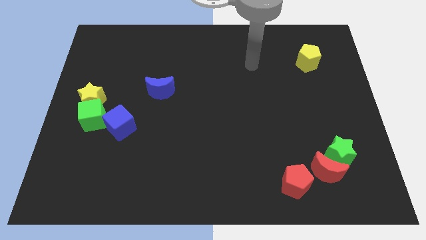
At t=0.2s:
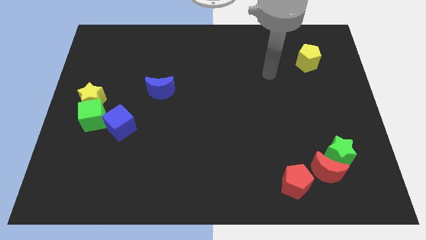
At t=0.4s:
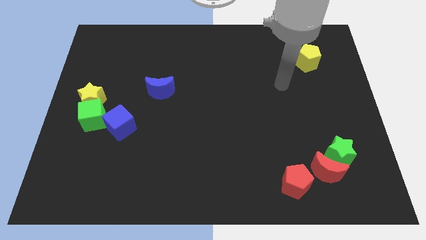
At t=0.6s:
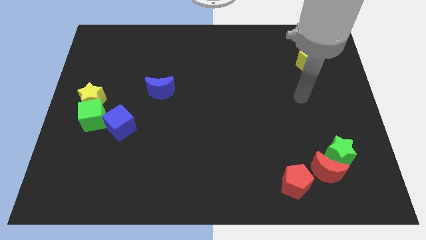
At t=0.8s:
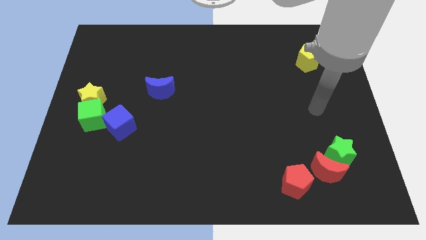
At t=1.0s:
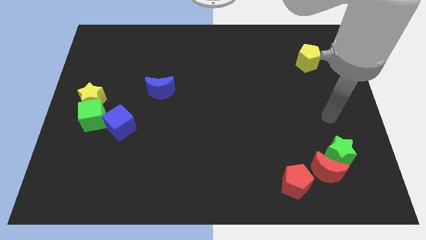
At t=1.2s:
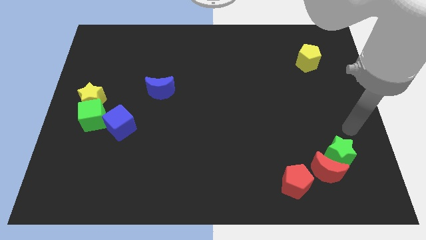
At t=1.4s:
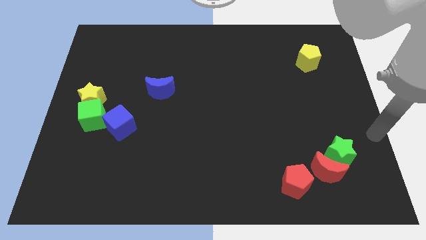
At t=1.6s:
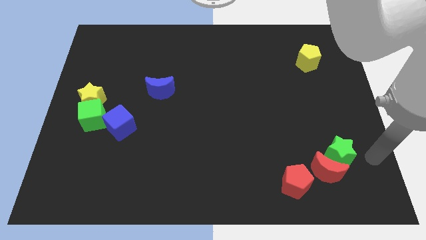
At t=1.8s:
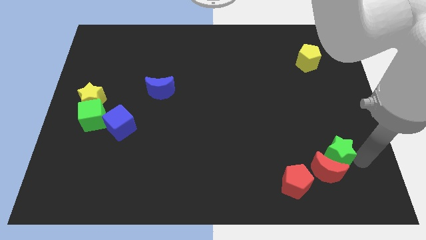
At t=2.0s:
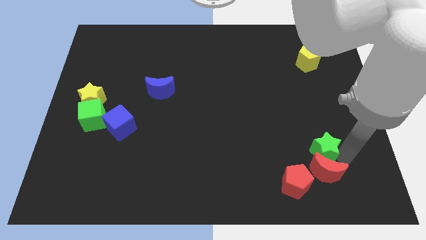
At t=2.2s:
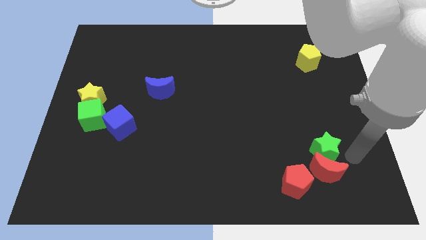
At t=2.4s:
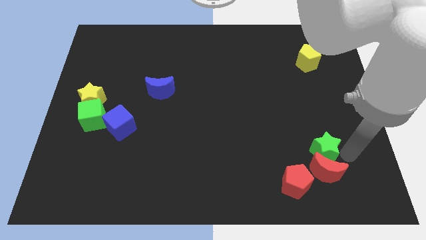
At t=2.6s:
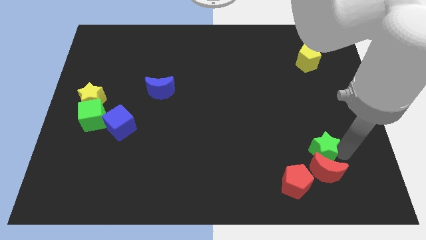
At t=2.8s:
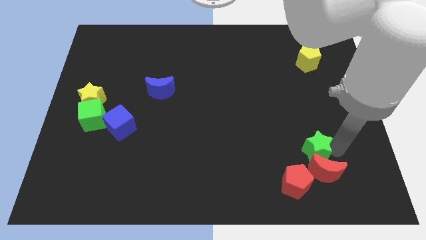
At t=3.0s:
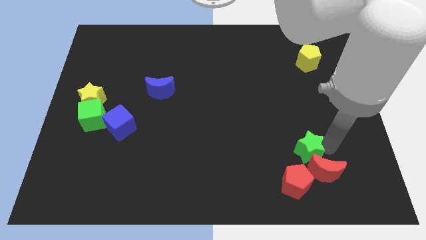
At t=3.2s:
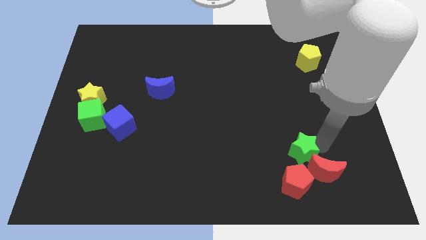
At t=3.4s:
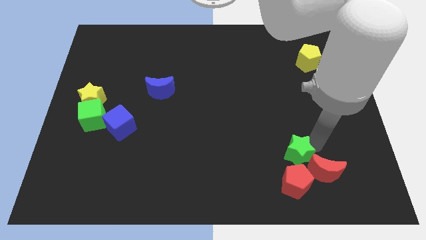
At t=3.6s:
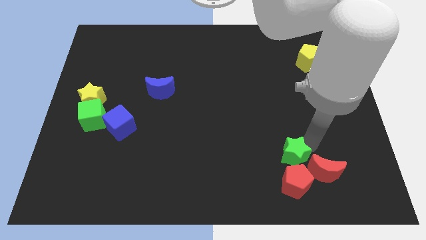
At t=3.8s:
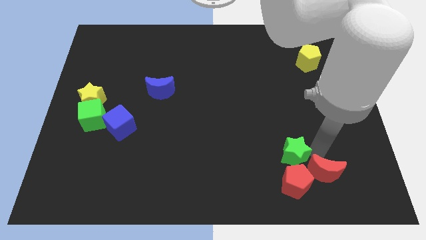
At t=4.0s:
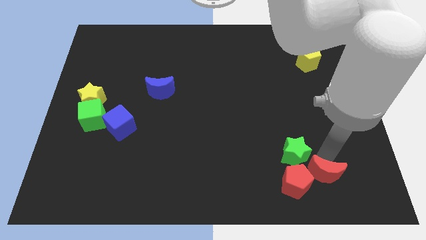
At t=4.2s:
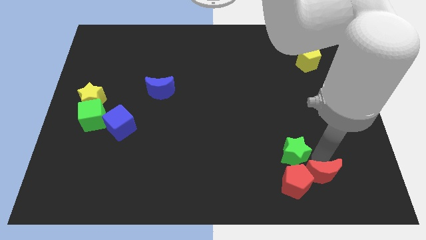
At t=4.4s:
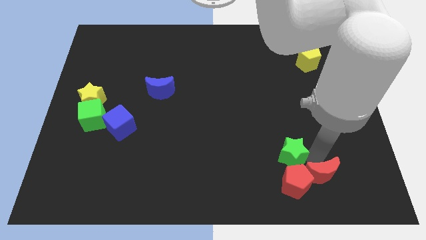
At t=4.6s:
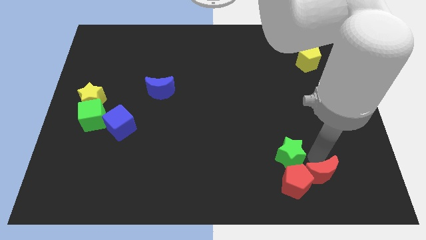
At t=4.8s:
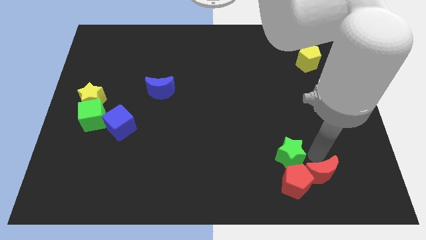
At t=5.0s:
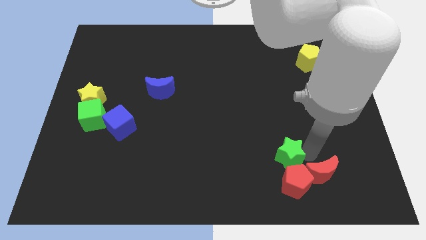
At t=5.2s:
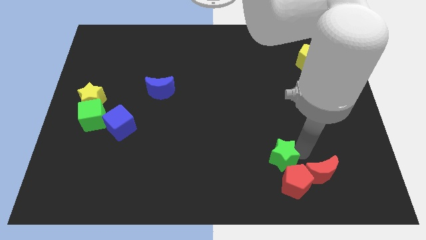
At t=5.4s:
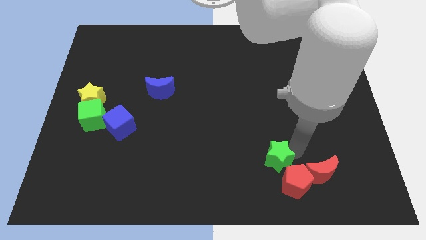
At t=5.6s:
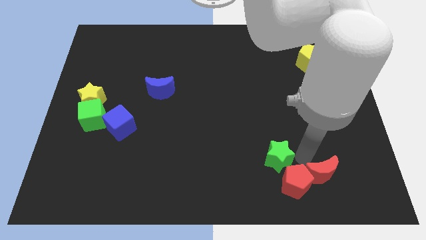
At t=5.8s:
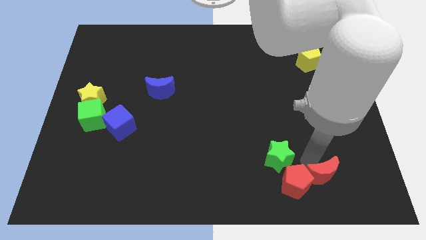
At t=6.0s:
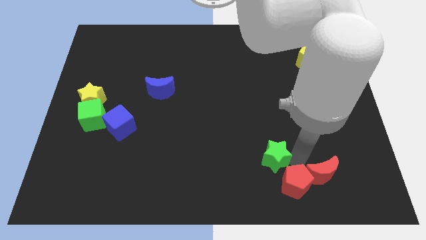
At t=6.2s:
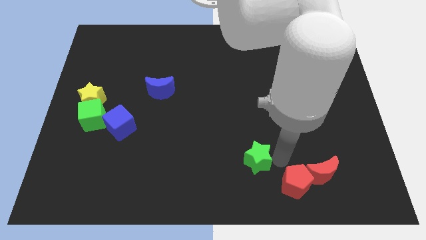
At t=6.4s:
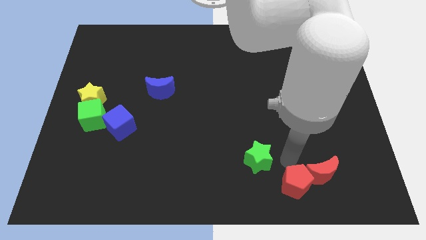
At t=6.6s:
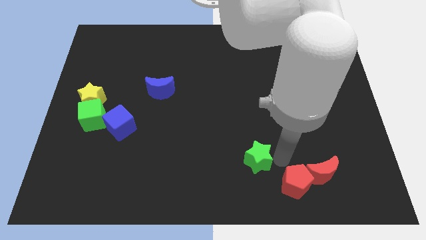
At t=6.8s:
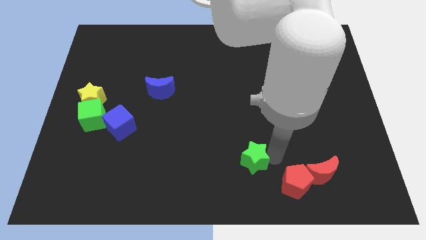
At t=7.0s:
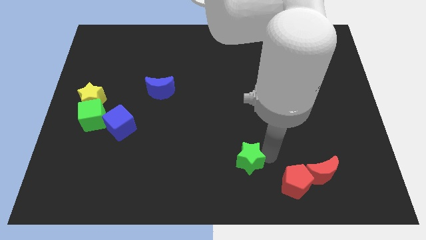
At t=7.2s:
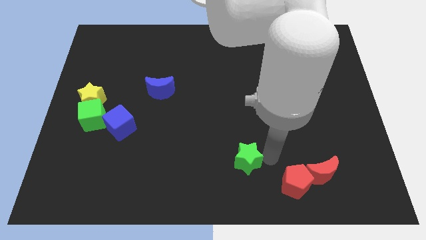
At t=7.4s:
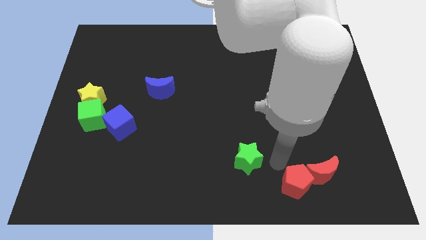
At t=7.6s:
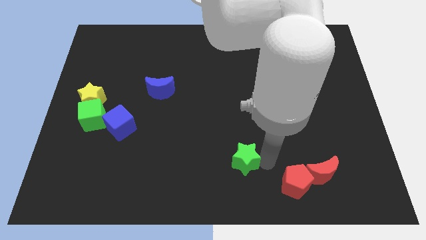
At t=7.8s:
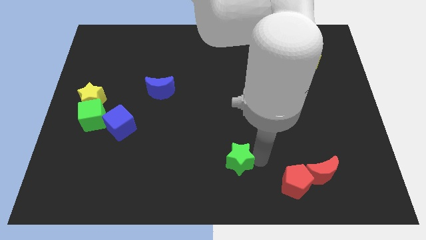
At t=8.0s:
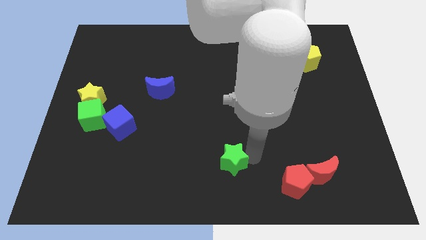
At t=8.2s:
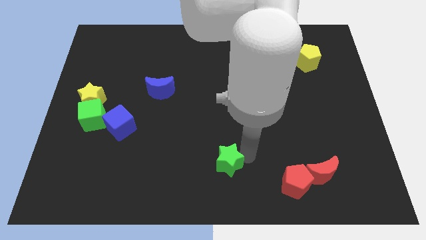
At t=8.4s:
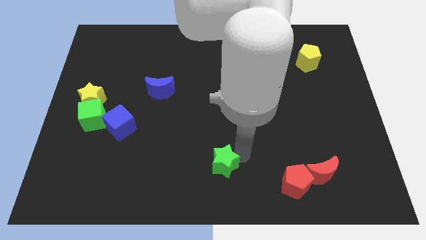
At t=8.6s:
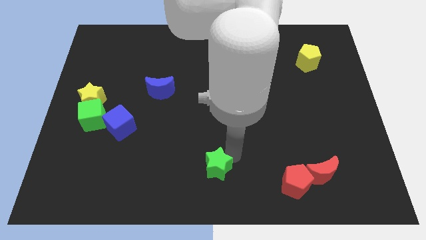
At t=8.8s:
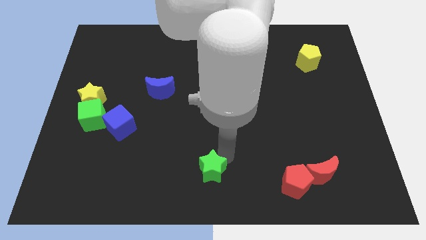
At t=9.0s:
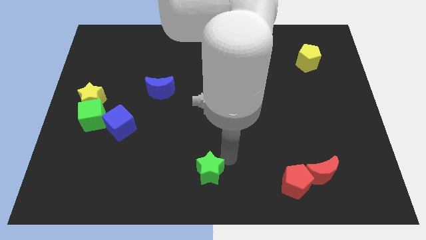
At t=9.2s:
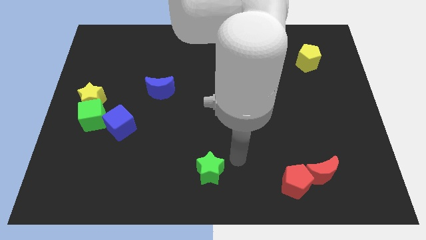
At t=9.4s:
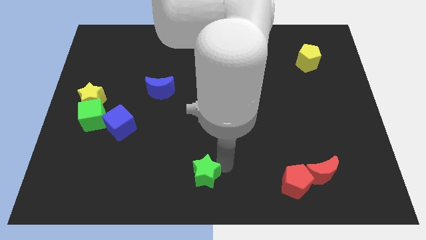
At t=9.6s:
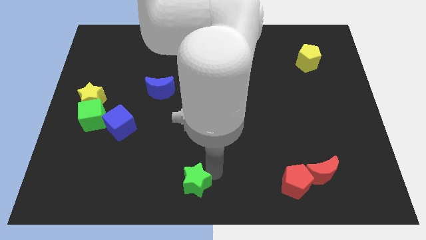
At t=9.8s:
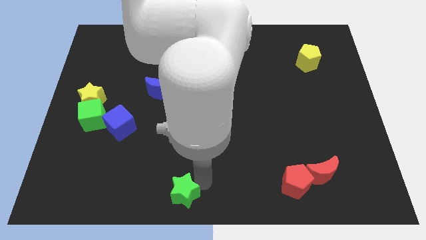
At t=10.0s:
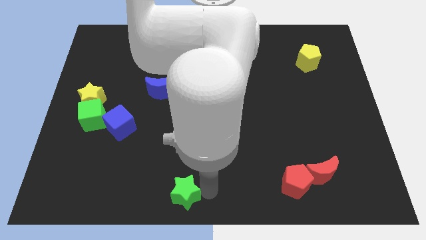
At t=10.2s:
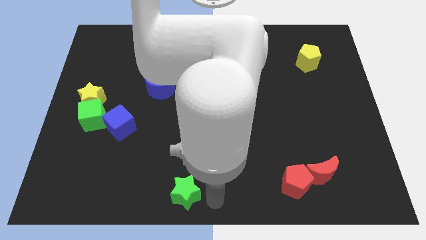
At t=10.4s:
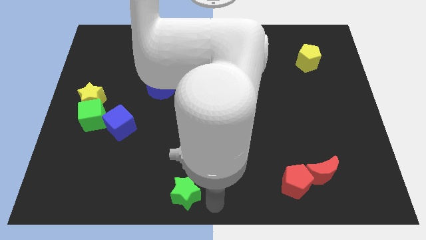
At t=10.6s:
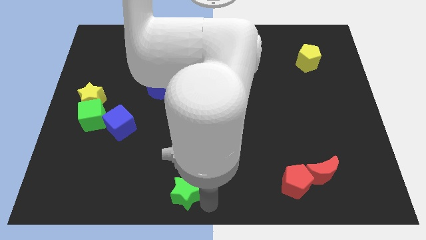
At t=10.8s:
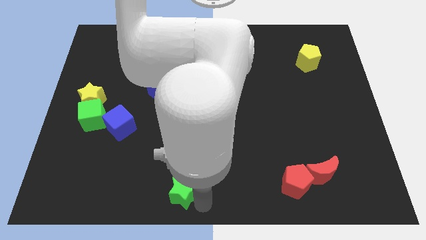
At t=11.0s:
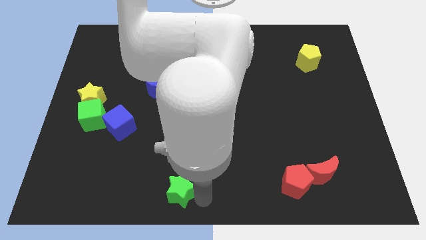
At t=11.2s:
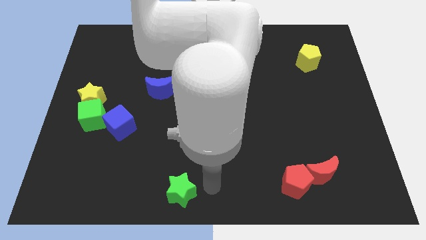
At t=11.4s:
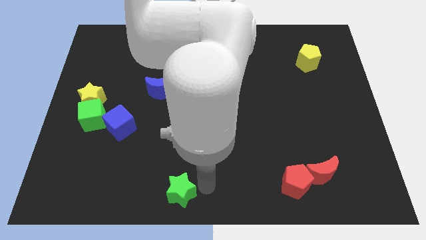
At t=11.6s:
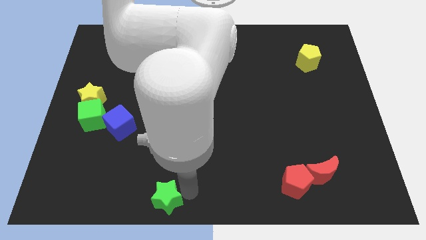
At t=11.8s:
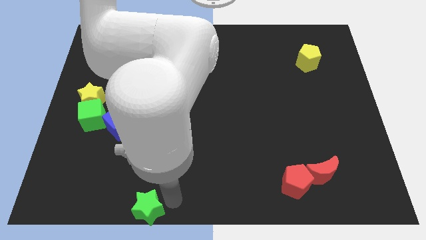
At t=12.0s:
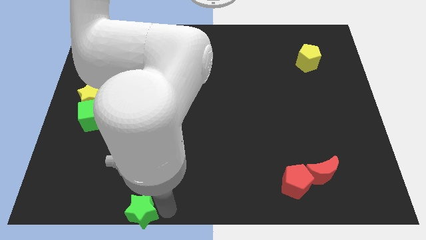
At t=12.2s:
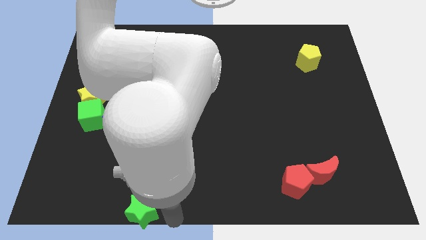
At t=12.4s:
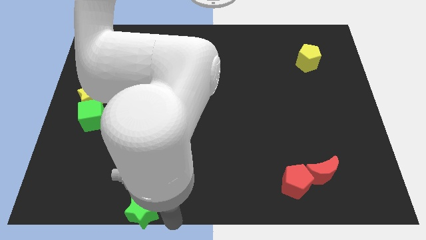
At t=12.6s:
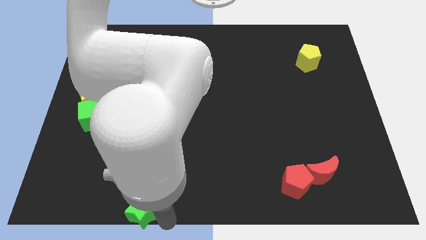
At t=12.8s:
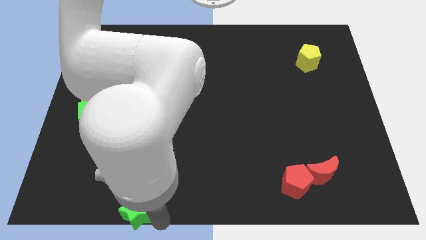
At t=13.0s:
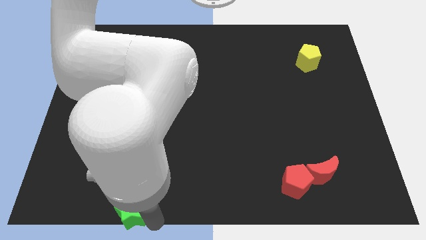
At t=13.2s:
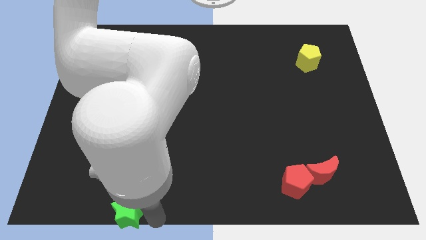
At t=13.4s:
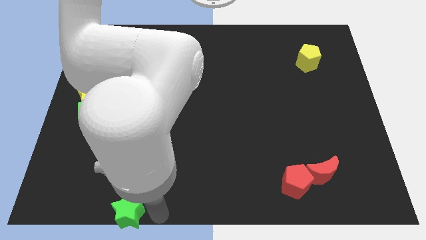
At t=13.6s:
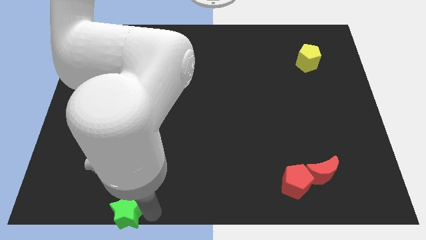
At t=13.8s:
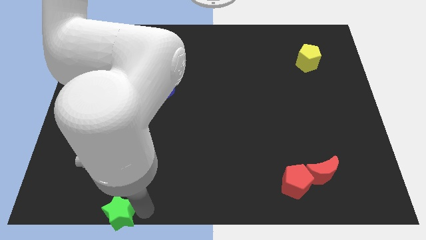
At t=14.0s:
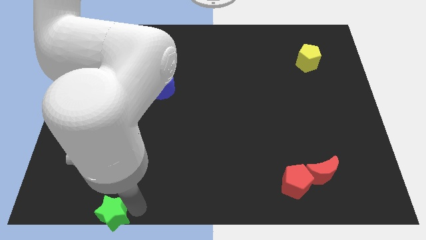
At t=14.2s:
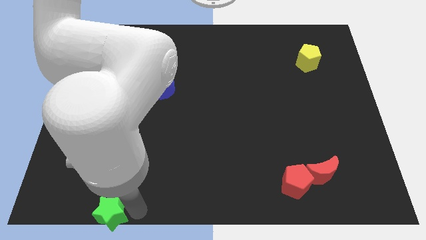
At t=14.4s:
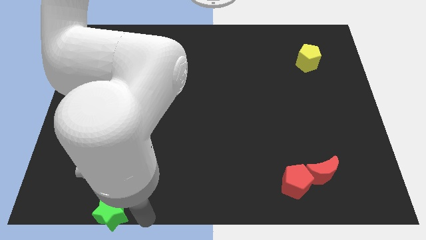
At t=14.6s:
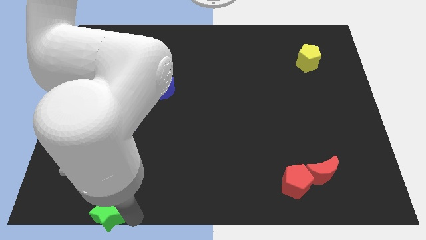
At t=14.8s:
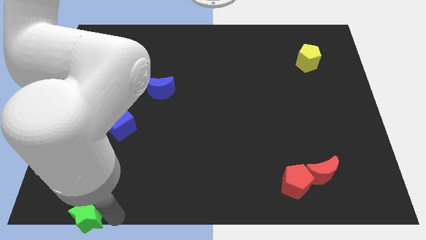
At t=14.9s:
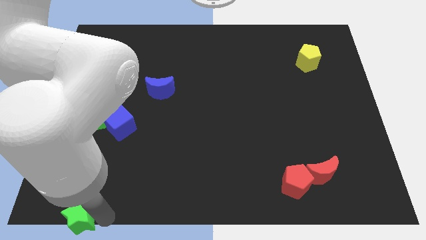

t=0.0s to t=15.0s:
put the green star to the bottom left of the board

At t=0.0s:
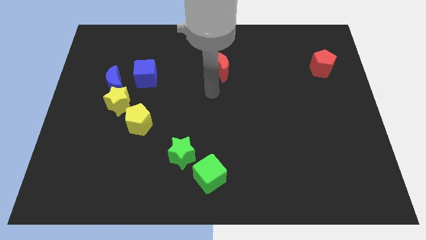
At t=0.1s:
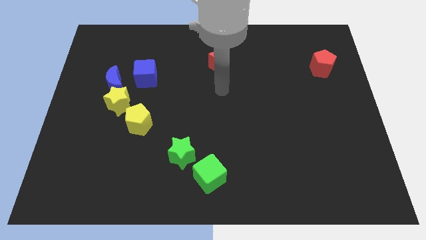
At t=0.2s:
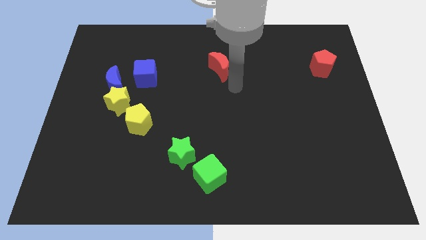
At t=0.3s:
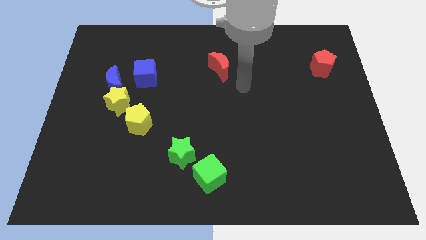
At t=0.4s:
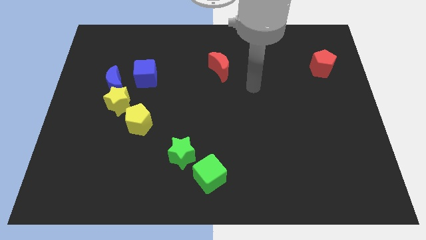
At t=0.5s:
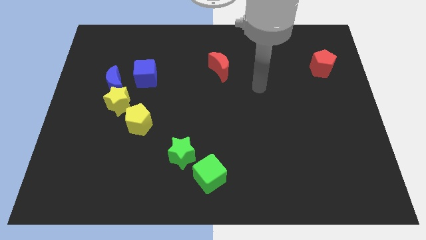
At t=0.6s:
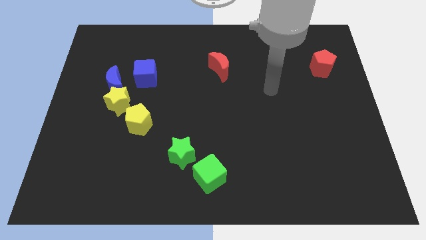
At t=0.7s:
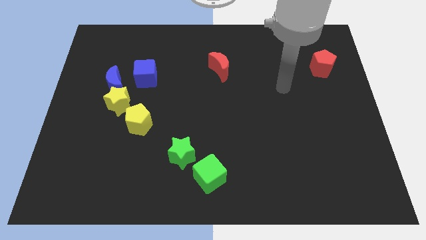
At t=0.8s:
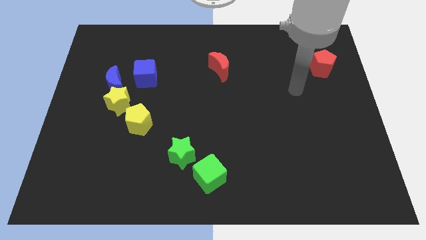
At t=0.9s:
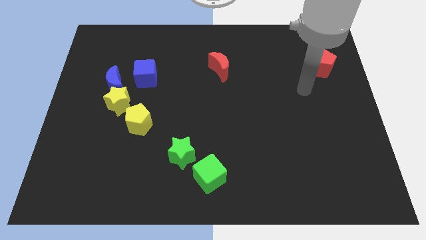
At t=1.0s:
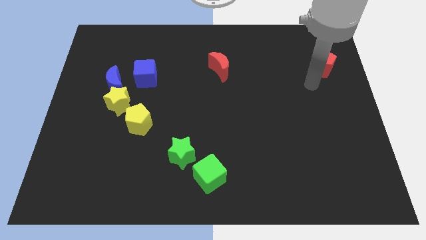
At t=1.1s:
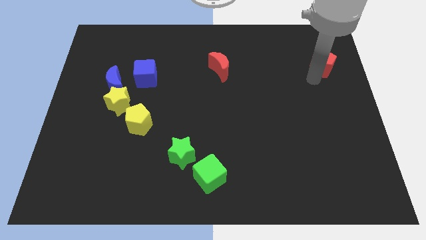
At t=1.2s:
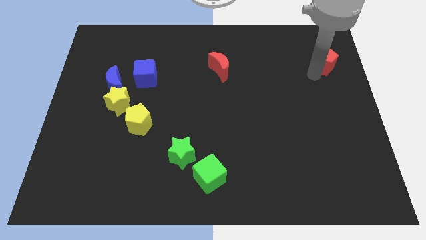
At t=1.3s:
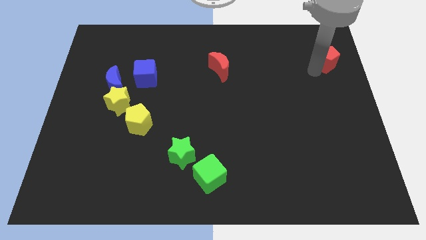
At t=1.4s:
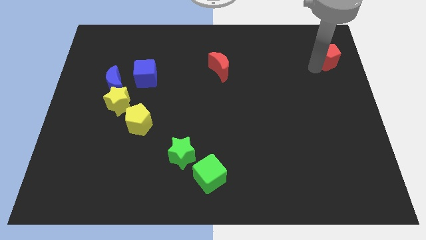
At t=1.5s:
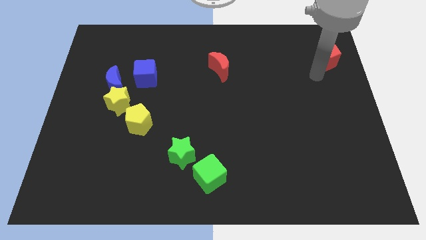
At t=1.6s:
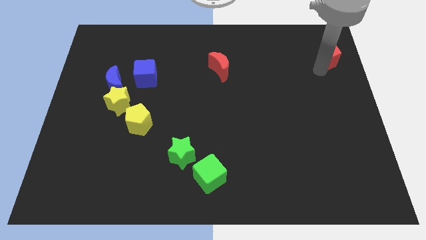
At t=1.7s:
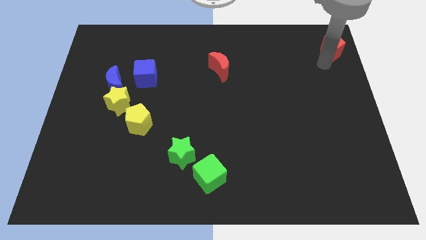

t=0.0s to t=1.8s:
slide the red pentagon to the top right
